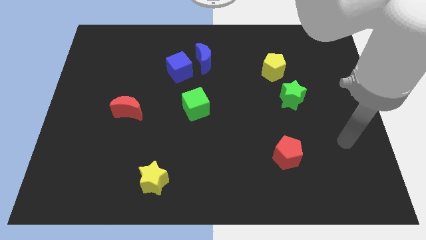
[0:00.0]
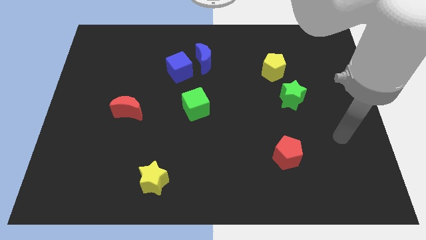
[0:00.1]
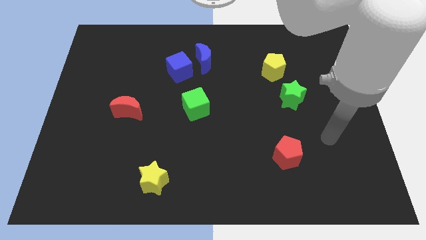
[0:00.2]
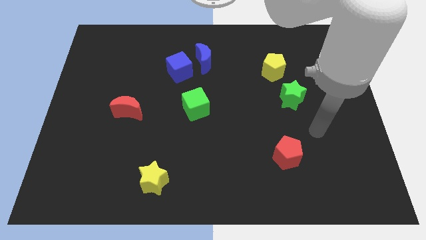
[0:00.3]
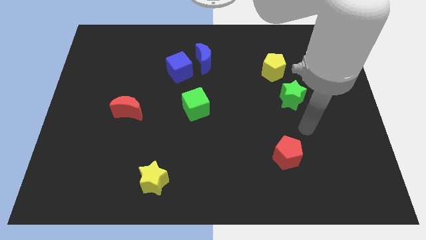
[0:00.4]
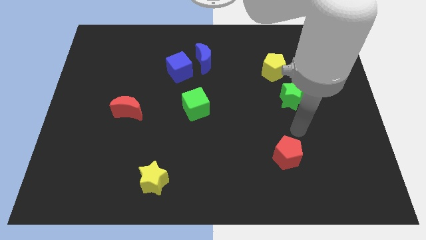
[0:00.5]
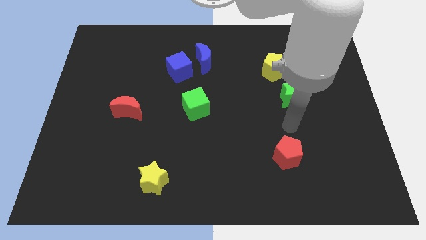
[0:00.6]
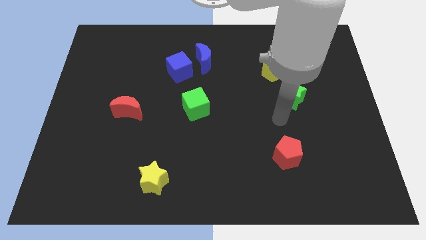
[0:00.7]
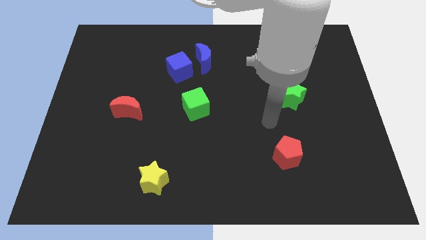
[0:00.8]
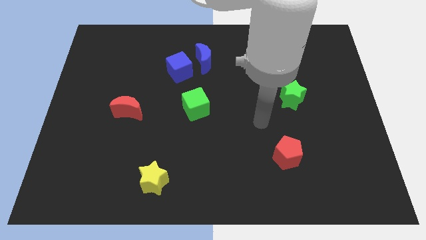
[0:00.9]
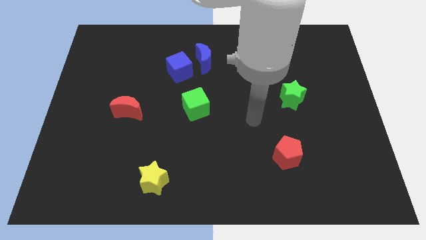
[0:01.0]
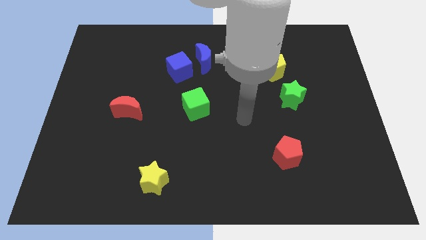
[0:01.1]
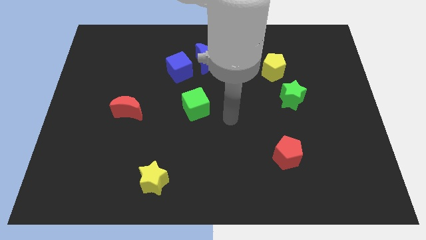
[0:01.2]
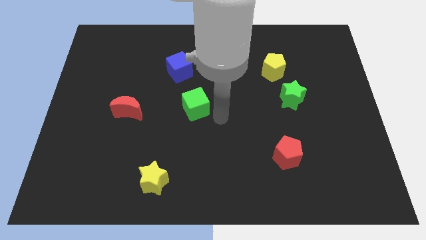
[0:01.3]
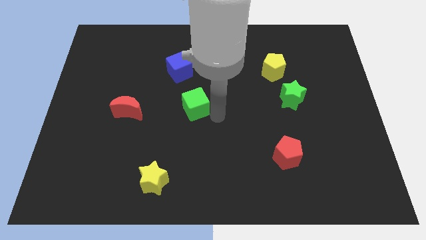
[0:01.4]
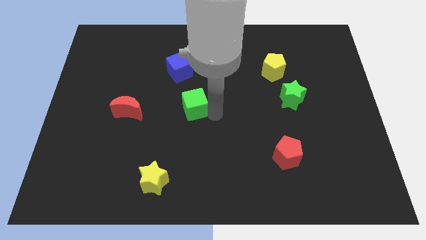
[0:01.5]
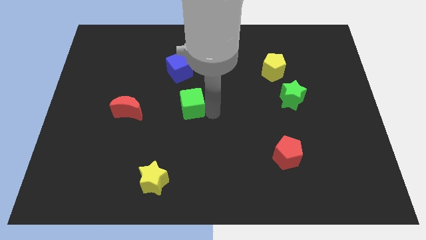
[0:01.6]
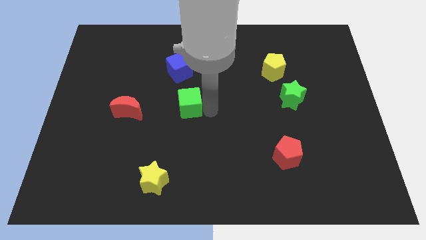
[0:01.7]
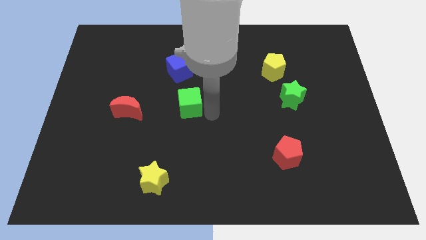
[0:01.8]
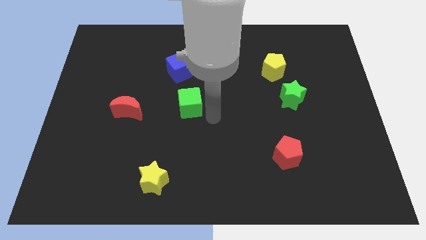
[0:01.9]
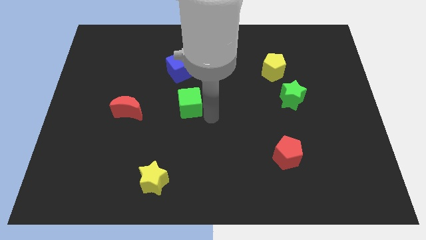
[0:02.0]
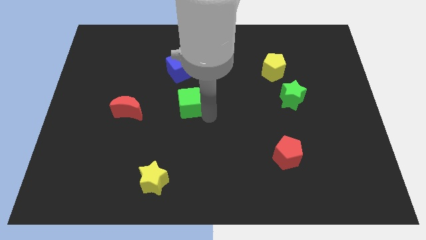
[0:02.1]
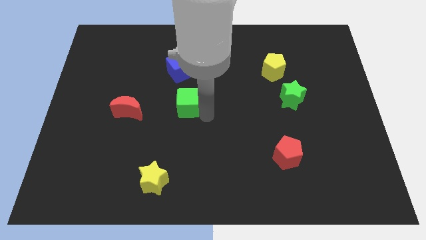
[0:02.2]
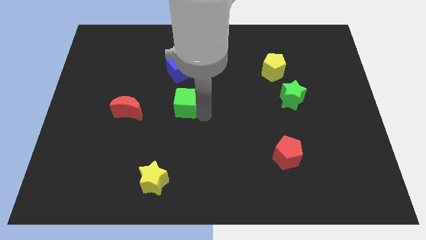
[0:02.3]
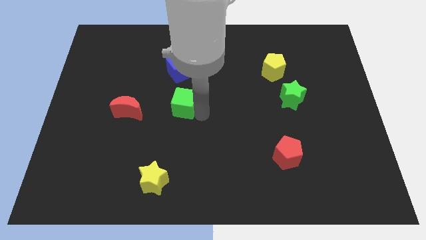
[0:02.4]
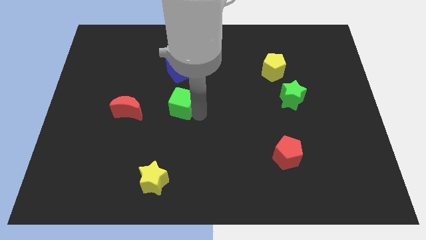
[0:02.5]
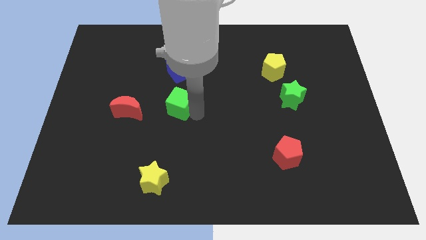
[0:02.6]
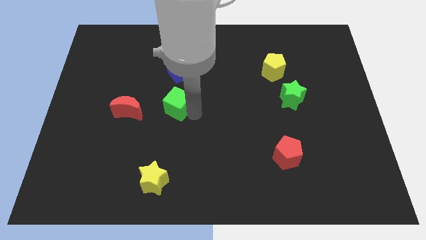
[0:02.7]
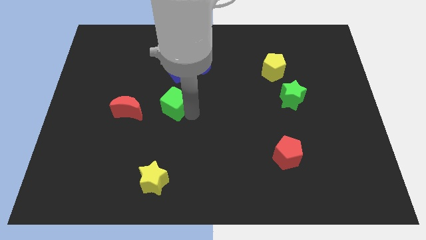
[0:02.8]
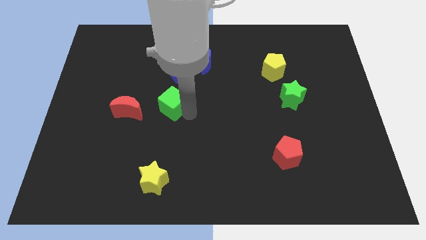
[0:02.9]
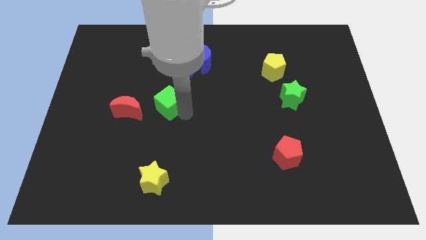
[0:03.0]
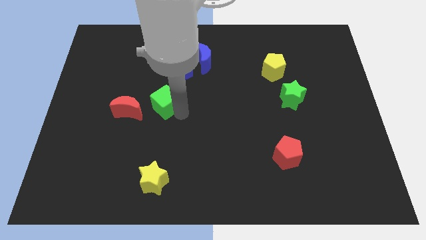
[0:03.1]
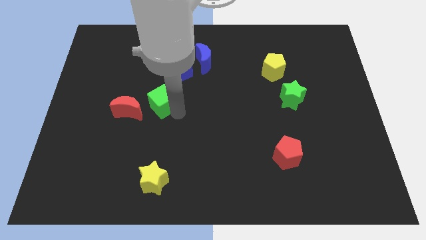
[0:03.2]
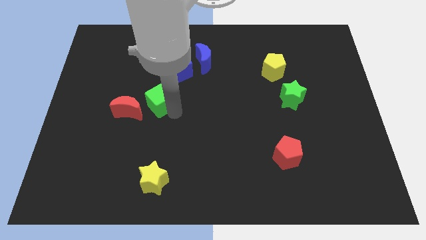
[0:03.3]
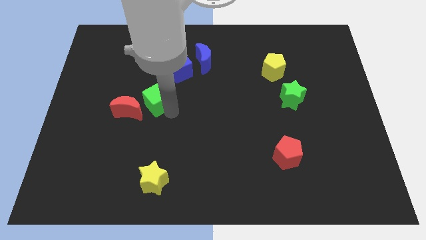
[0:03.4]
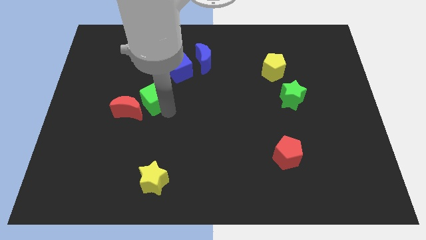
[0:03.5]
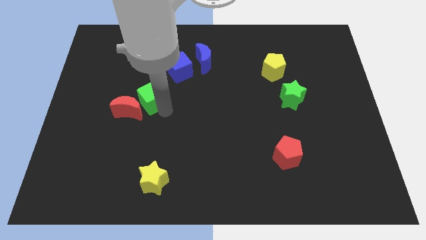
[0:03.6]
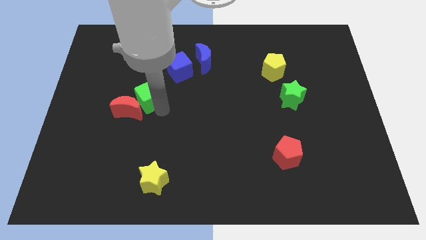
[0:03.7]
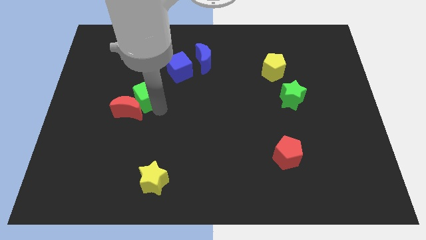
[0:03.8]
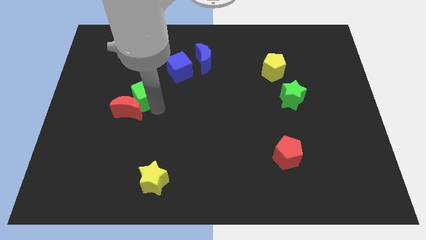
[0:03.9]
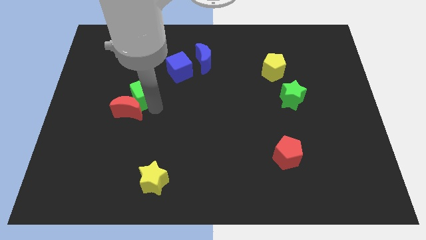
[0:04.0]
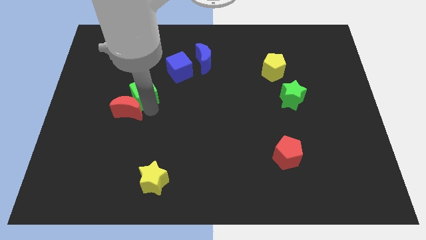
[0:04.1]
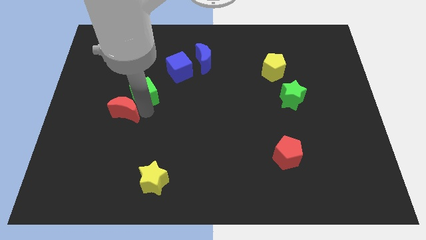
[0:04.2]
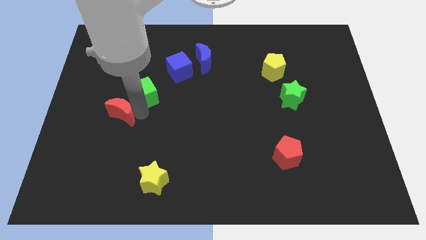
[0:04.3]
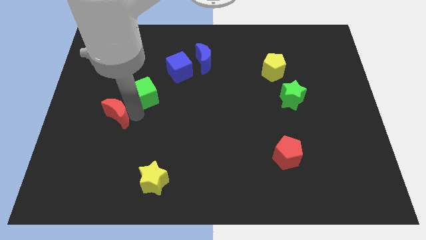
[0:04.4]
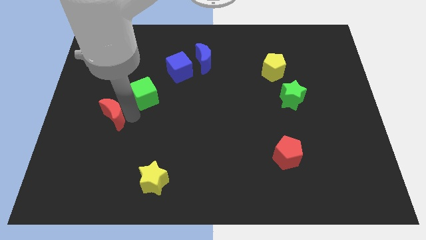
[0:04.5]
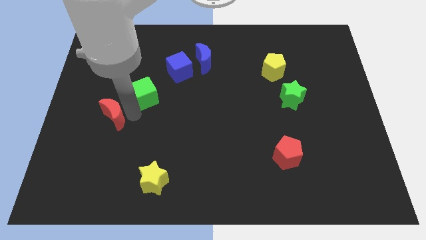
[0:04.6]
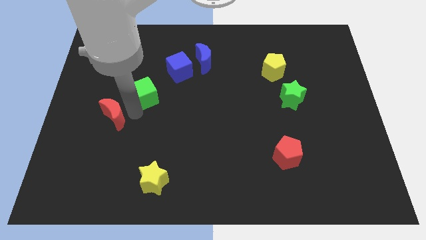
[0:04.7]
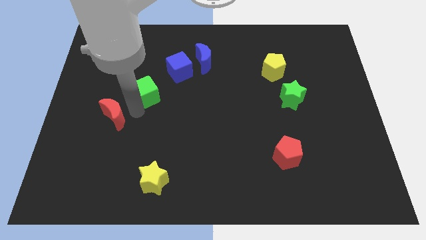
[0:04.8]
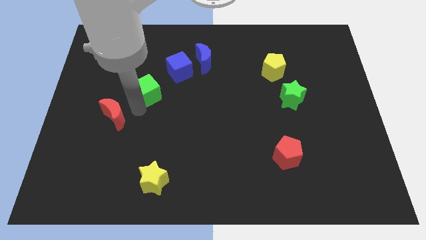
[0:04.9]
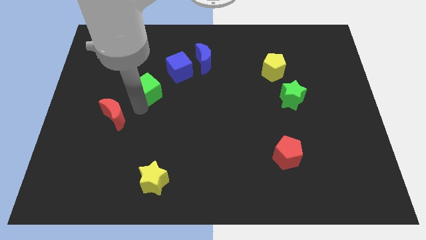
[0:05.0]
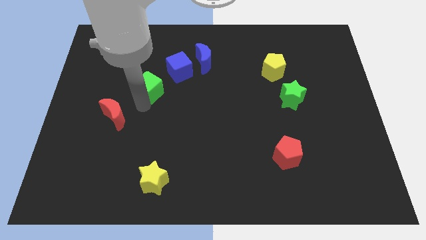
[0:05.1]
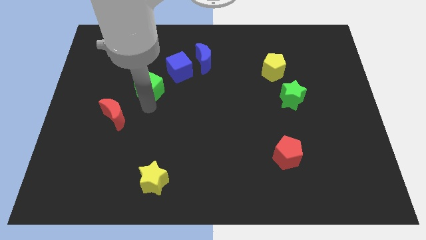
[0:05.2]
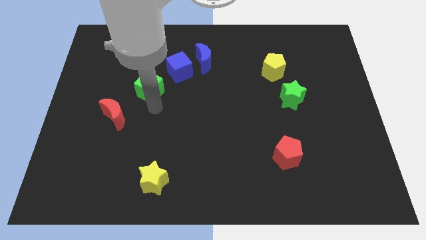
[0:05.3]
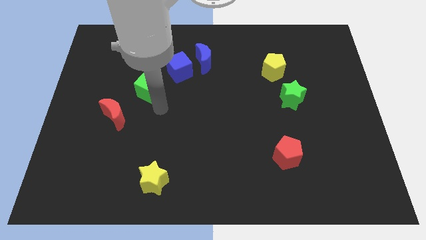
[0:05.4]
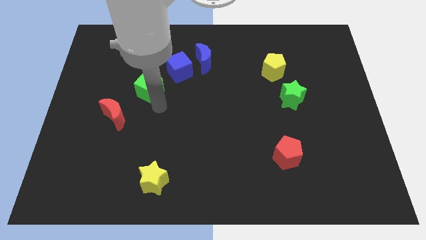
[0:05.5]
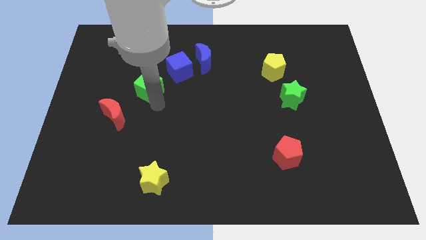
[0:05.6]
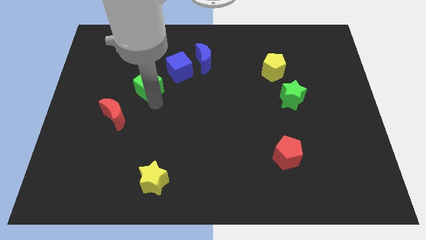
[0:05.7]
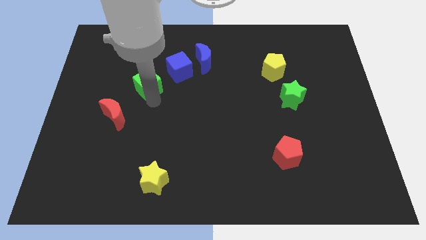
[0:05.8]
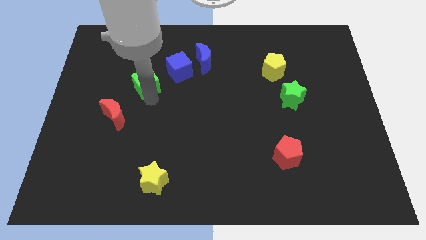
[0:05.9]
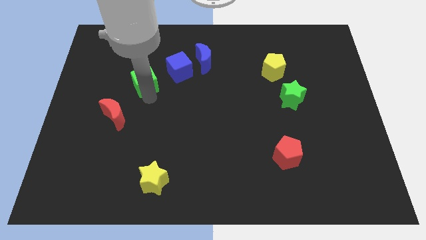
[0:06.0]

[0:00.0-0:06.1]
put the green cube left of the blue cube

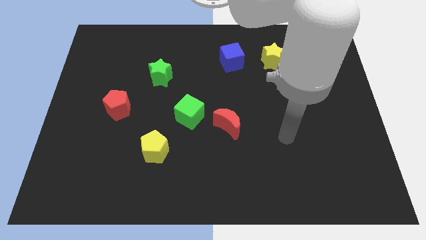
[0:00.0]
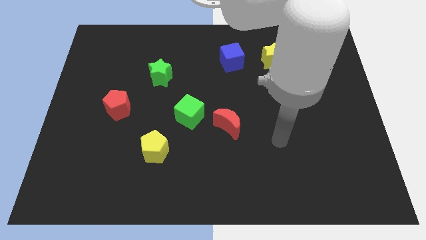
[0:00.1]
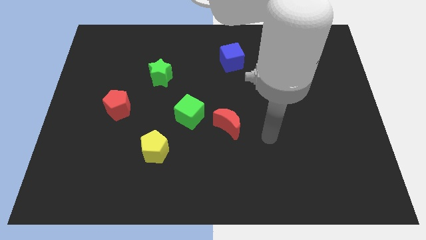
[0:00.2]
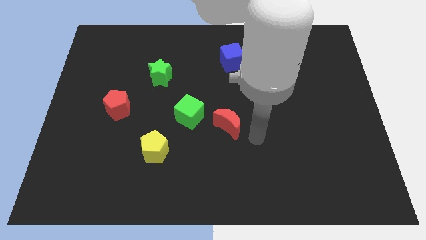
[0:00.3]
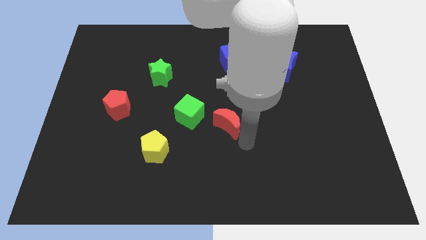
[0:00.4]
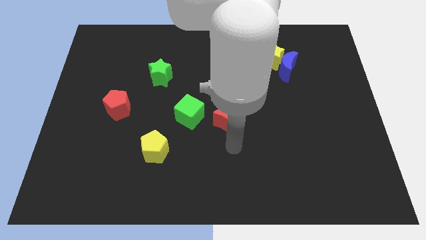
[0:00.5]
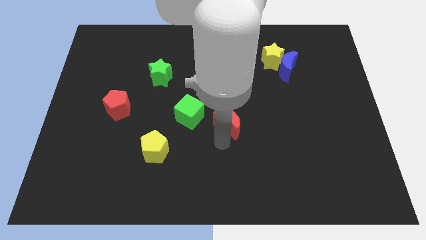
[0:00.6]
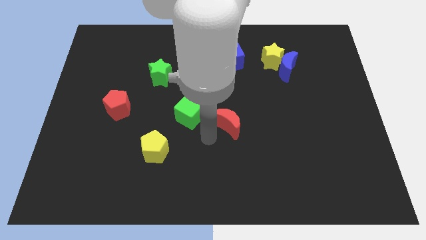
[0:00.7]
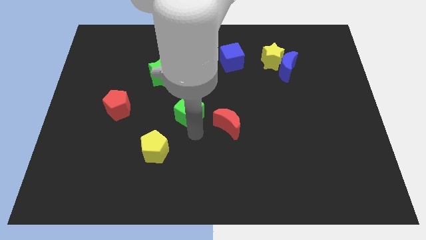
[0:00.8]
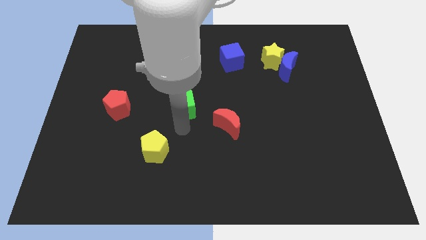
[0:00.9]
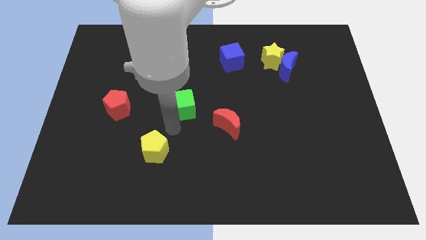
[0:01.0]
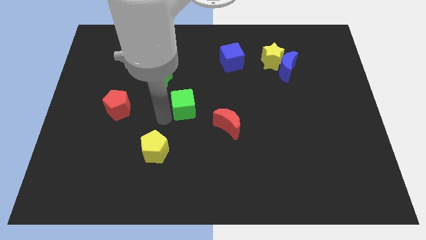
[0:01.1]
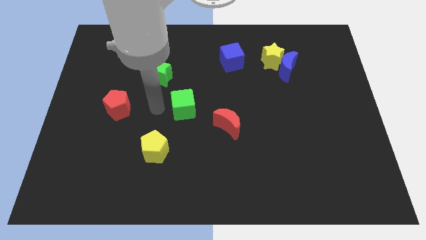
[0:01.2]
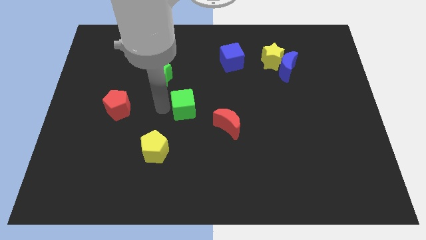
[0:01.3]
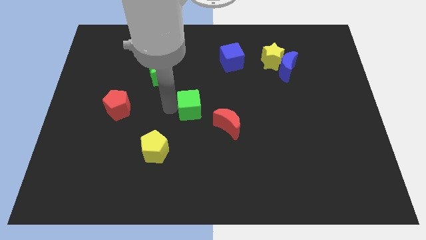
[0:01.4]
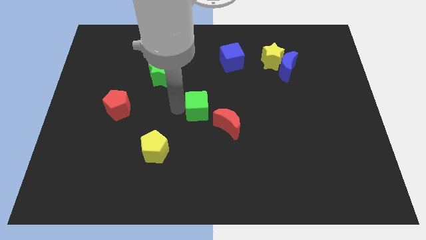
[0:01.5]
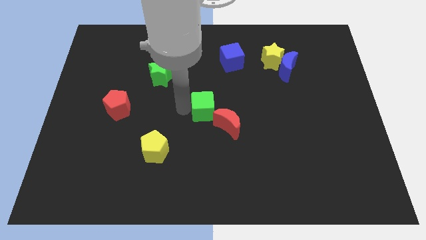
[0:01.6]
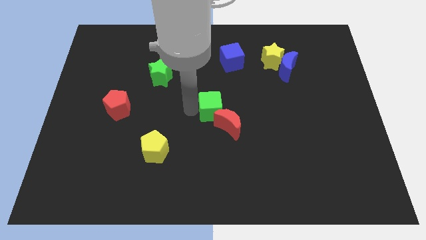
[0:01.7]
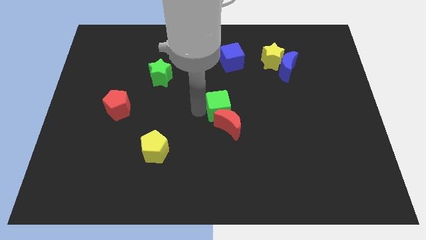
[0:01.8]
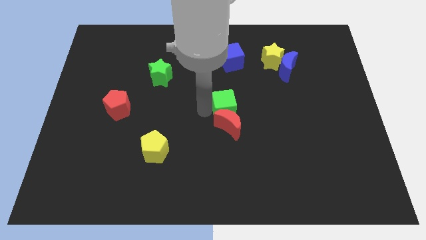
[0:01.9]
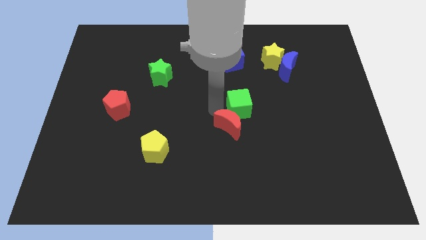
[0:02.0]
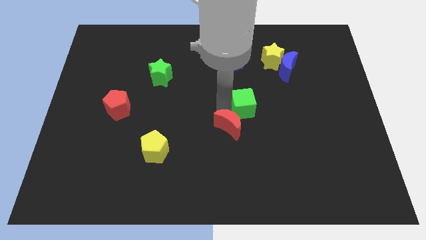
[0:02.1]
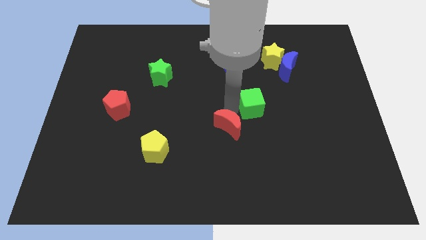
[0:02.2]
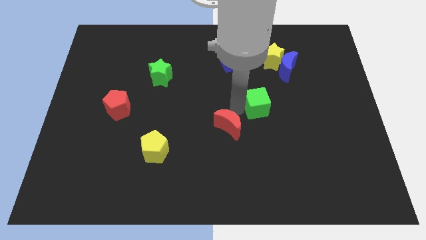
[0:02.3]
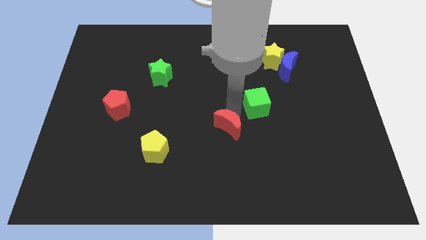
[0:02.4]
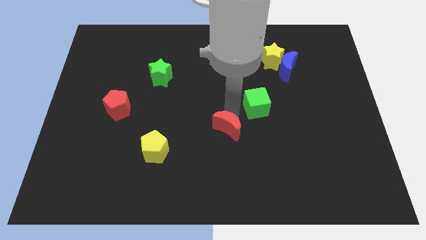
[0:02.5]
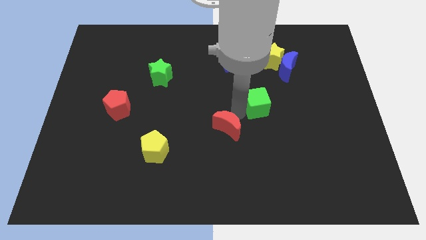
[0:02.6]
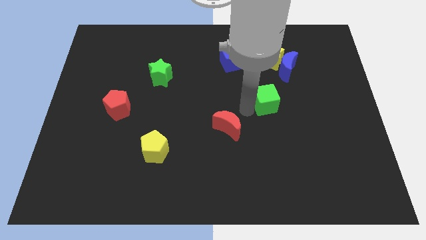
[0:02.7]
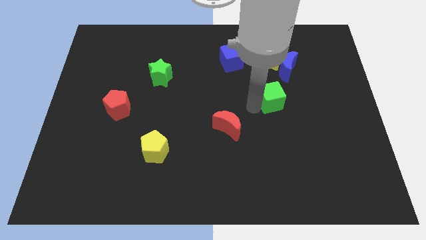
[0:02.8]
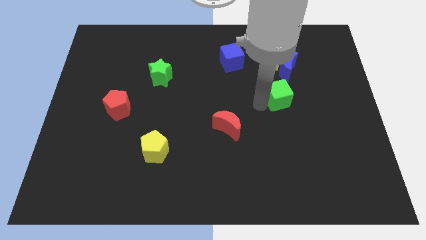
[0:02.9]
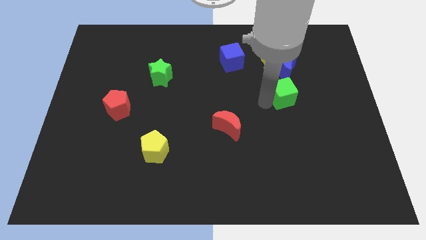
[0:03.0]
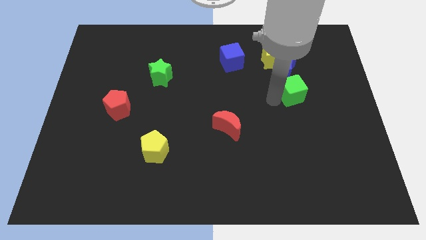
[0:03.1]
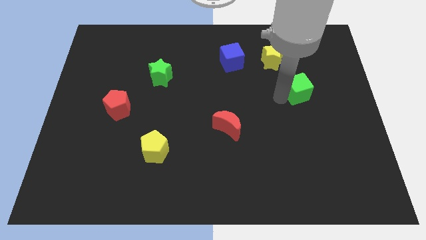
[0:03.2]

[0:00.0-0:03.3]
push the green cube to the bottom right side of the blue moon
